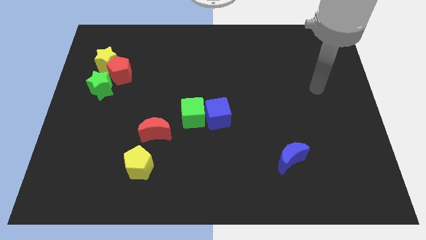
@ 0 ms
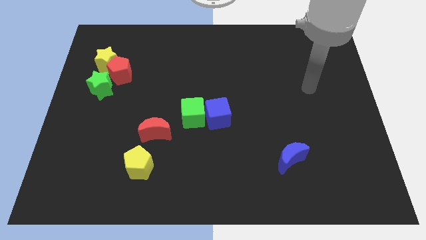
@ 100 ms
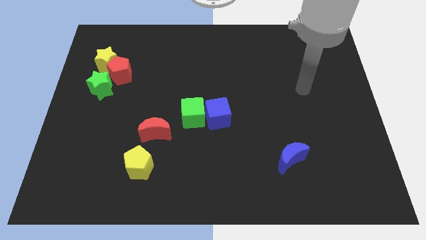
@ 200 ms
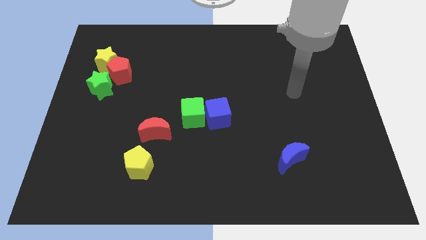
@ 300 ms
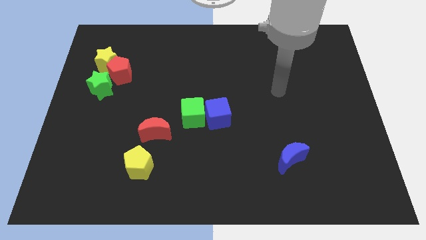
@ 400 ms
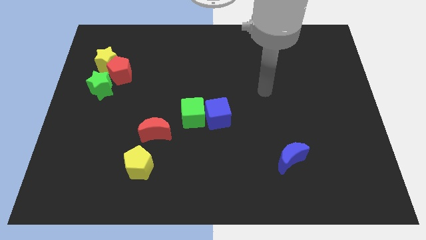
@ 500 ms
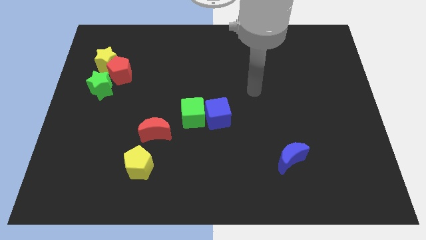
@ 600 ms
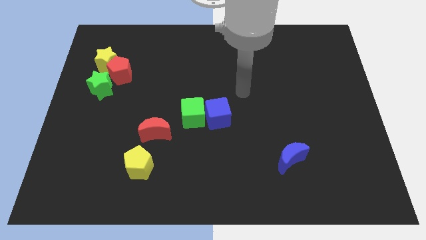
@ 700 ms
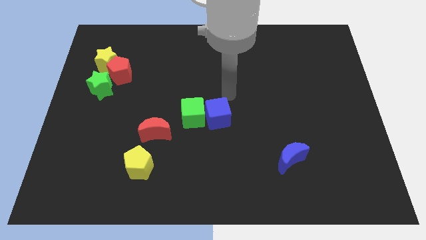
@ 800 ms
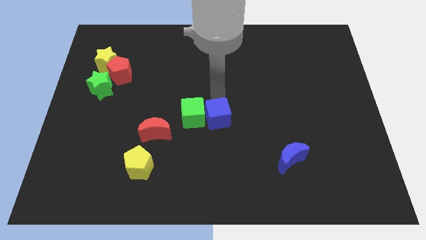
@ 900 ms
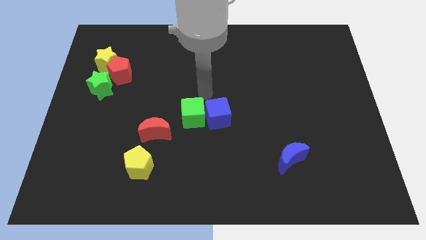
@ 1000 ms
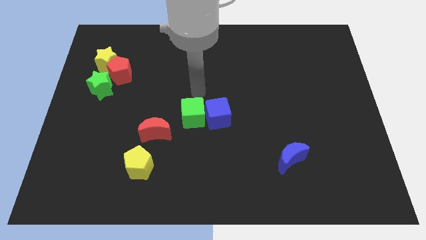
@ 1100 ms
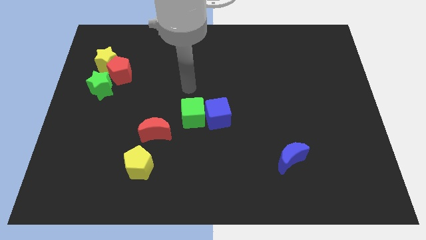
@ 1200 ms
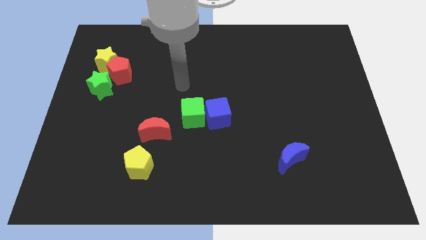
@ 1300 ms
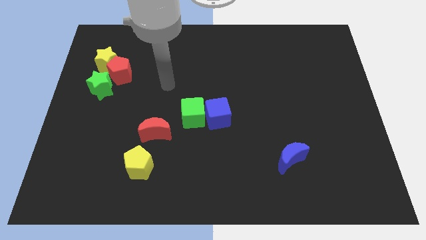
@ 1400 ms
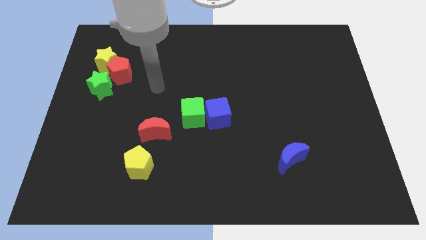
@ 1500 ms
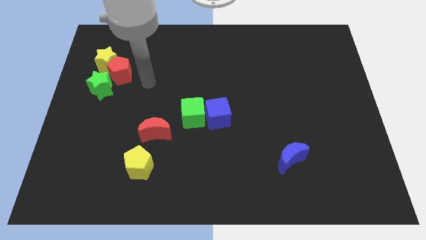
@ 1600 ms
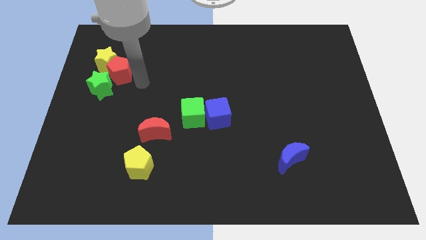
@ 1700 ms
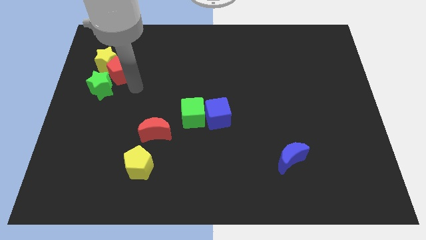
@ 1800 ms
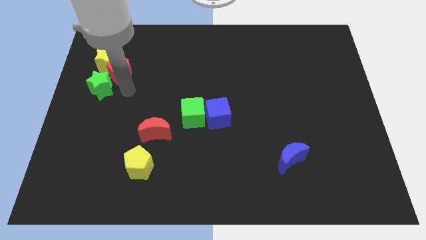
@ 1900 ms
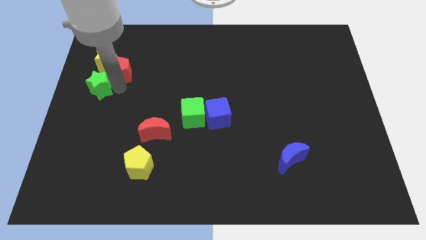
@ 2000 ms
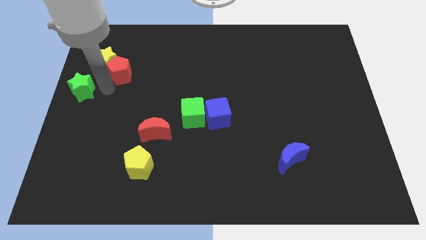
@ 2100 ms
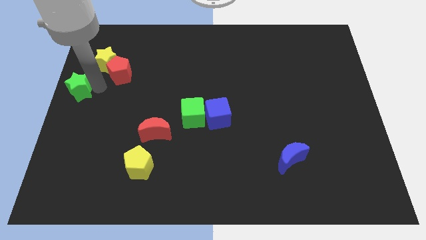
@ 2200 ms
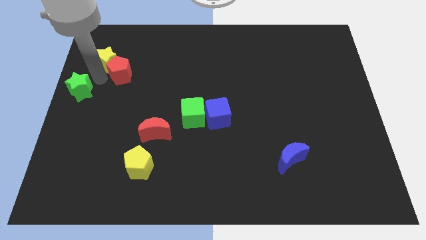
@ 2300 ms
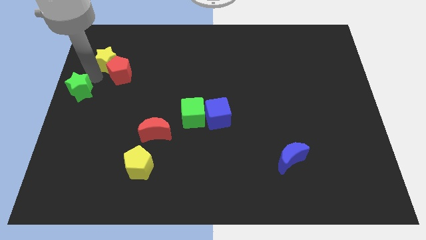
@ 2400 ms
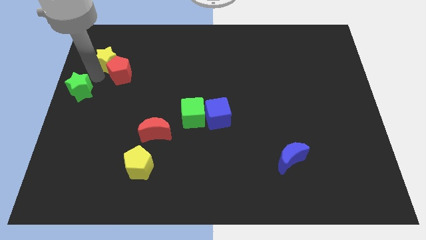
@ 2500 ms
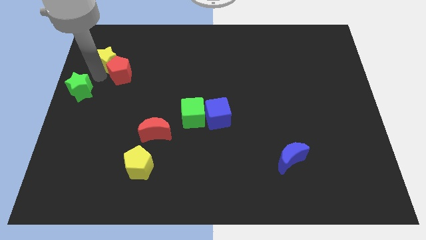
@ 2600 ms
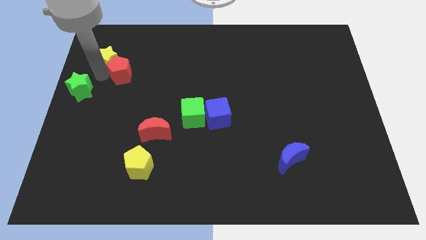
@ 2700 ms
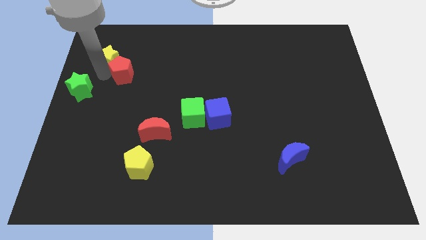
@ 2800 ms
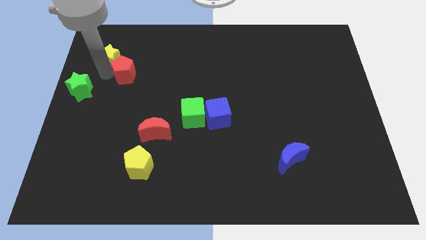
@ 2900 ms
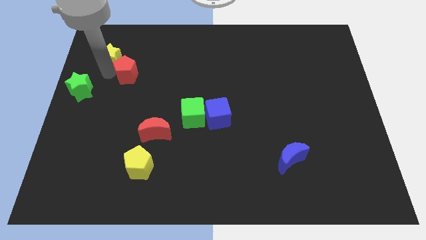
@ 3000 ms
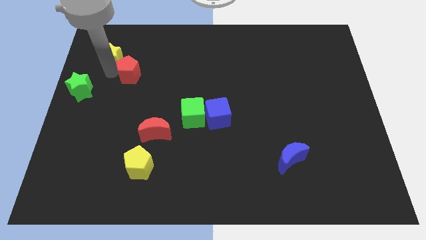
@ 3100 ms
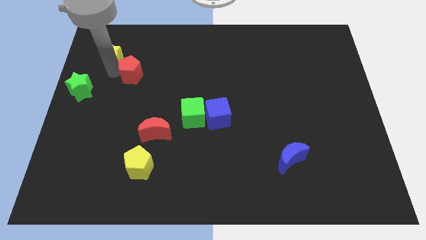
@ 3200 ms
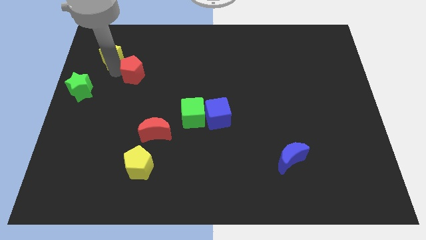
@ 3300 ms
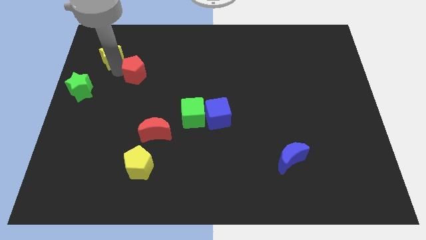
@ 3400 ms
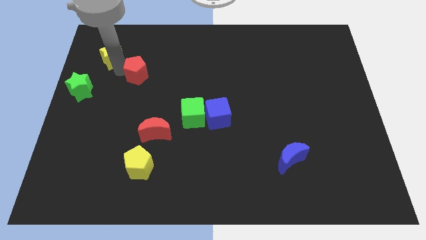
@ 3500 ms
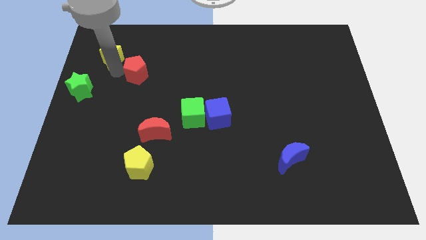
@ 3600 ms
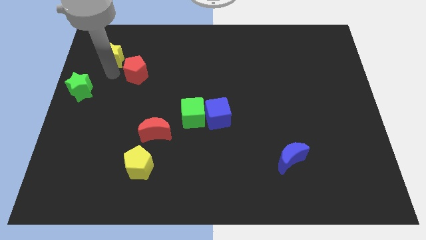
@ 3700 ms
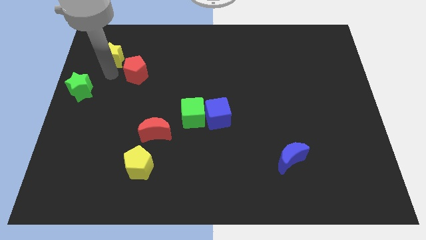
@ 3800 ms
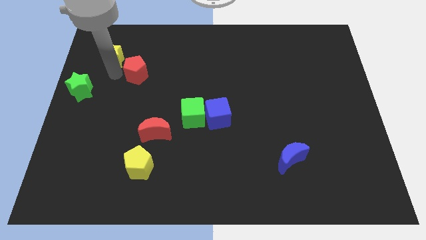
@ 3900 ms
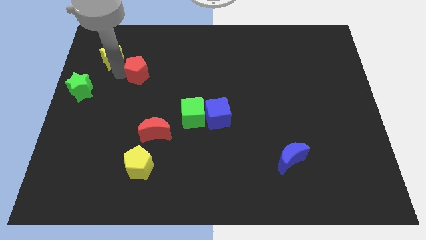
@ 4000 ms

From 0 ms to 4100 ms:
pull the red pentagon apart from the yellow star and green star

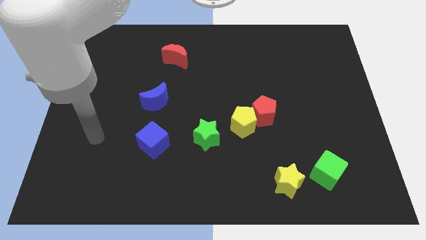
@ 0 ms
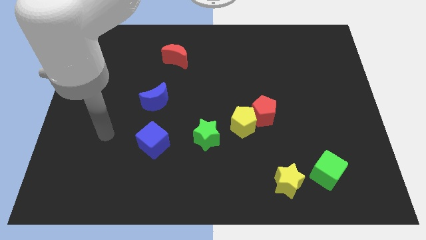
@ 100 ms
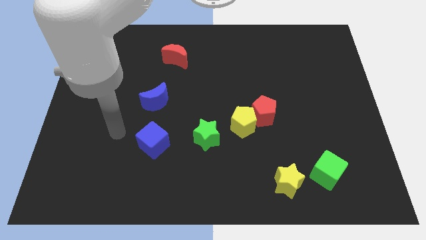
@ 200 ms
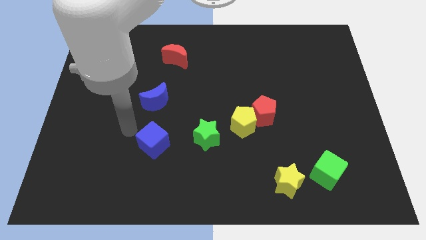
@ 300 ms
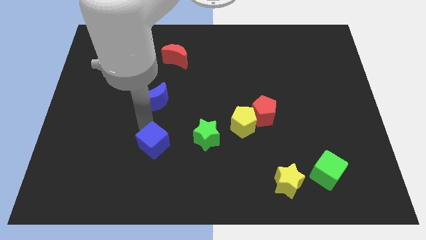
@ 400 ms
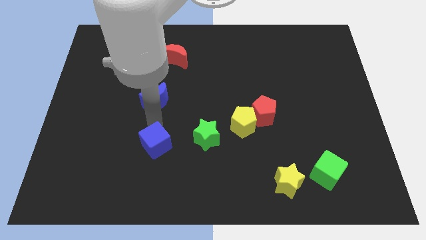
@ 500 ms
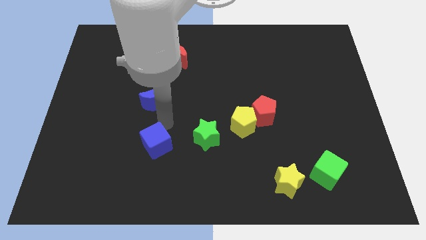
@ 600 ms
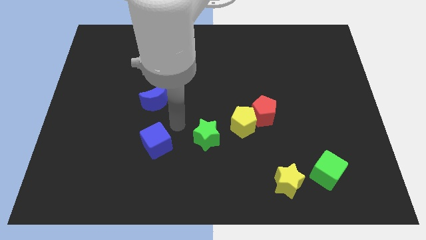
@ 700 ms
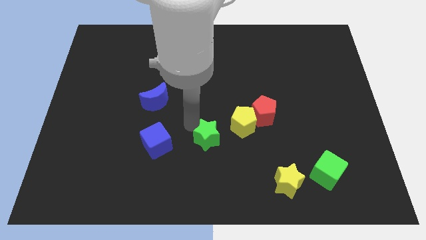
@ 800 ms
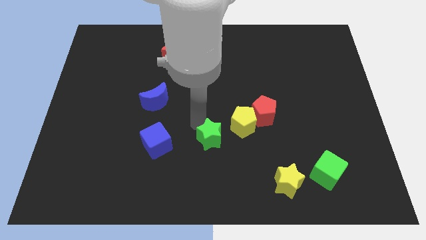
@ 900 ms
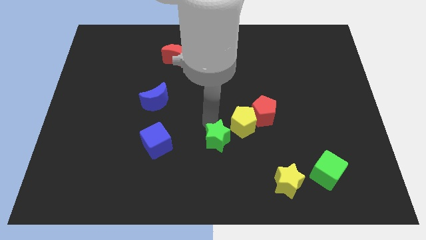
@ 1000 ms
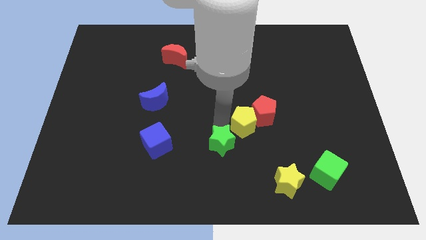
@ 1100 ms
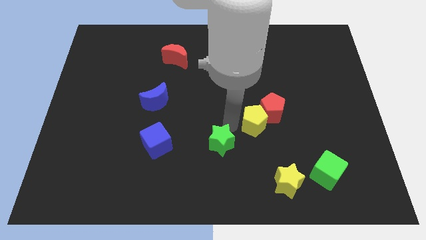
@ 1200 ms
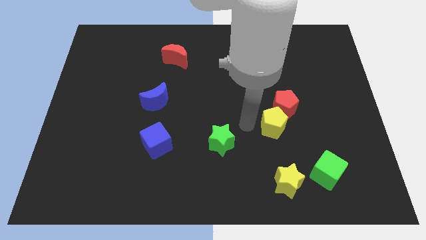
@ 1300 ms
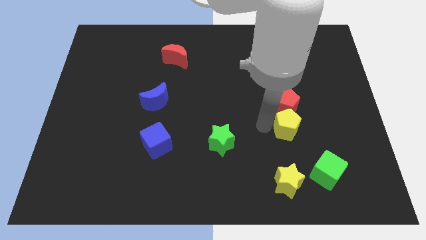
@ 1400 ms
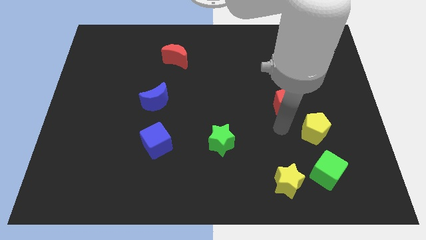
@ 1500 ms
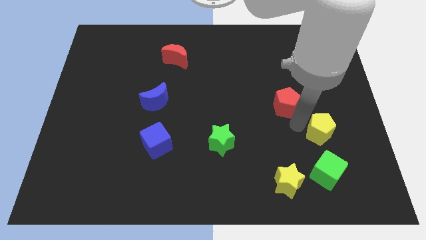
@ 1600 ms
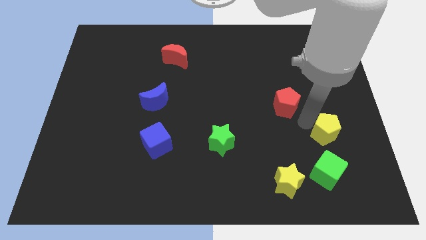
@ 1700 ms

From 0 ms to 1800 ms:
pull the red pentagon apart from the yellow pentagon

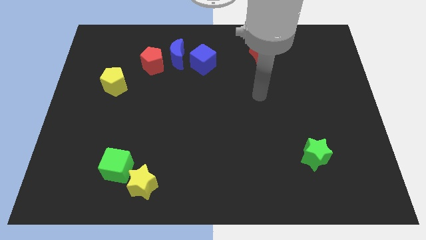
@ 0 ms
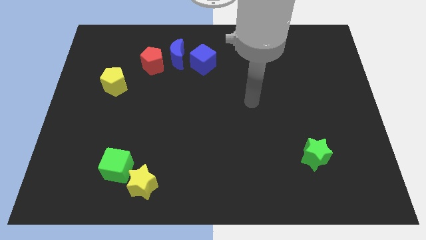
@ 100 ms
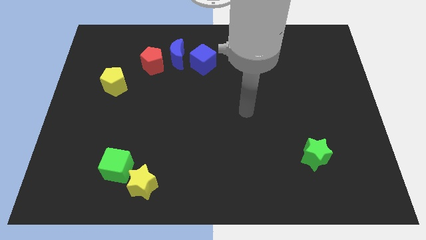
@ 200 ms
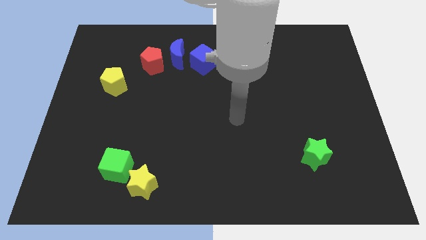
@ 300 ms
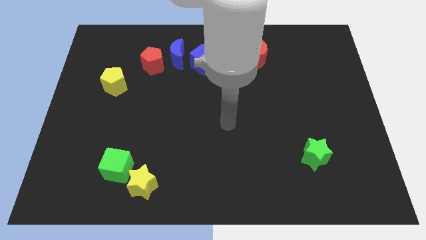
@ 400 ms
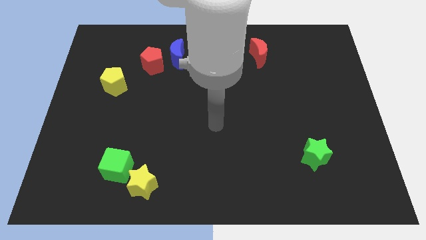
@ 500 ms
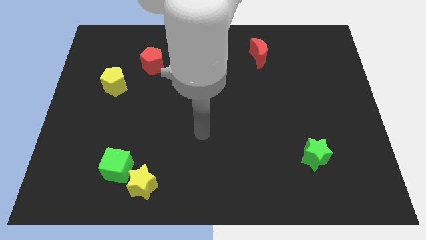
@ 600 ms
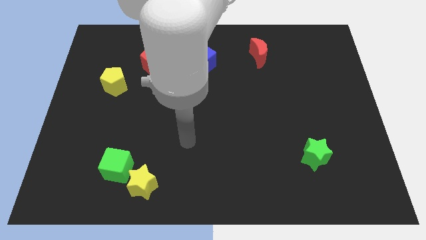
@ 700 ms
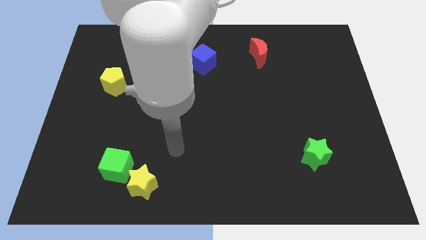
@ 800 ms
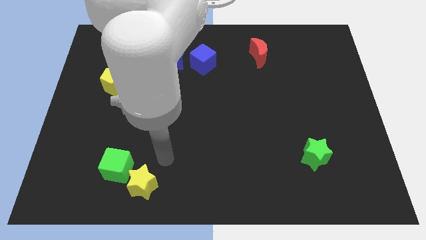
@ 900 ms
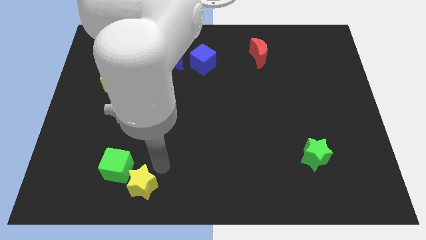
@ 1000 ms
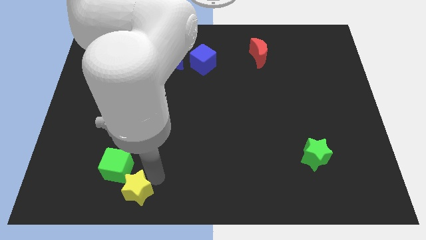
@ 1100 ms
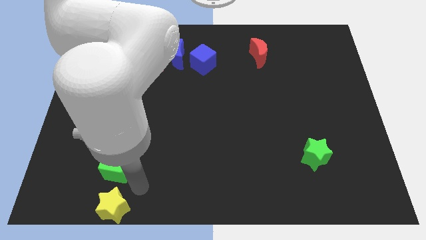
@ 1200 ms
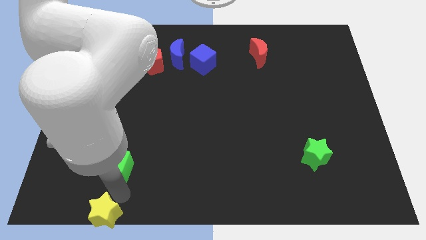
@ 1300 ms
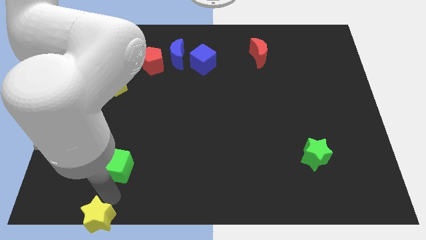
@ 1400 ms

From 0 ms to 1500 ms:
separate the green cube from the yellow star

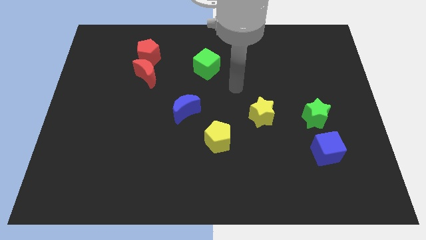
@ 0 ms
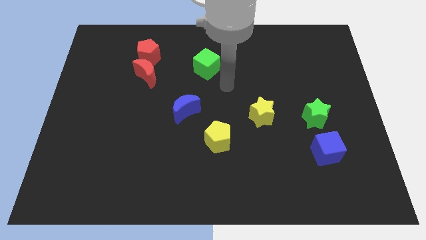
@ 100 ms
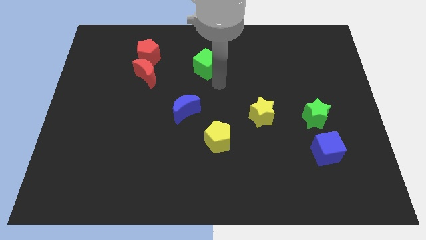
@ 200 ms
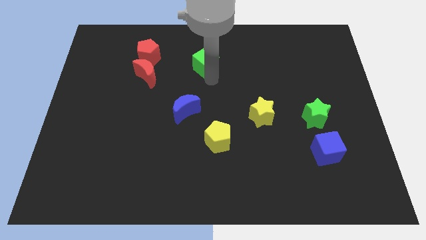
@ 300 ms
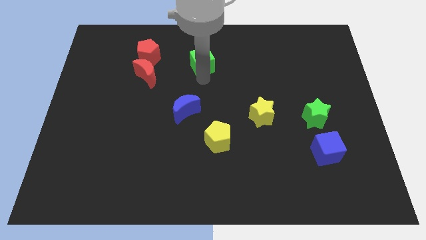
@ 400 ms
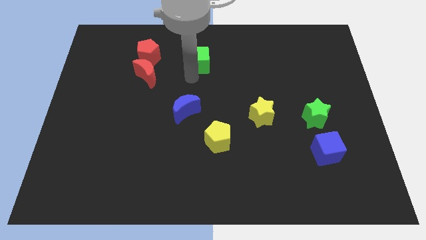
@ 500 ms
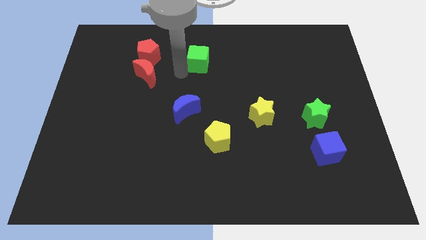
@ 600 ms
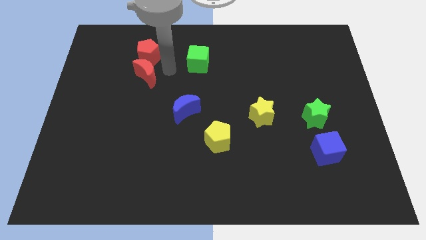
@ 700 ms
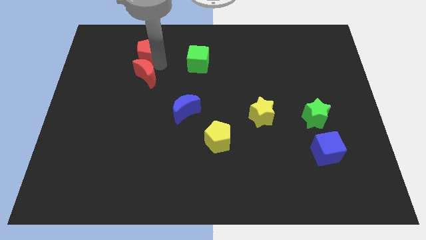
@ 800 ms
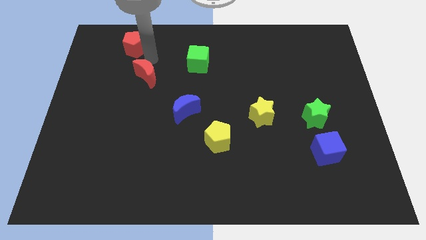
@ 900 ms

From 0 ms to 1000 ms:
pull the red moon apart from the red pentagon

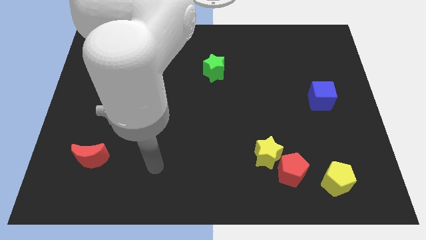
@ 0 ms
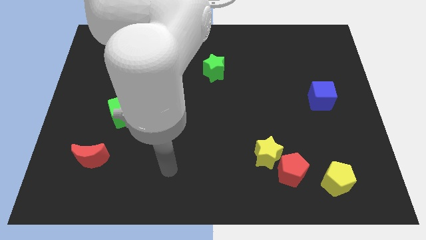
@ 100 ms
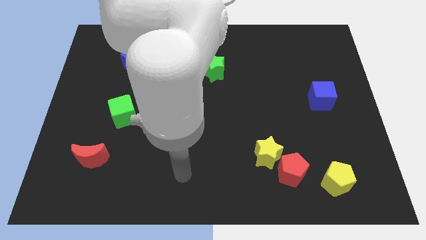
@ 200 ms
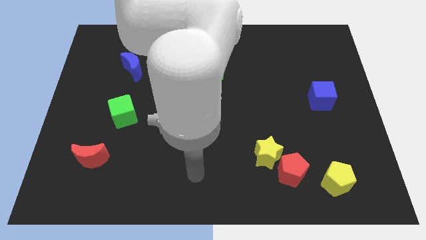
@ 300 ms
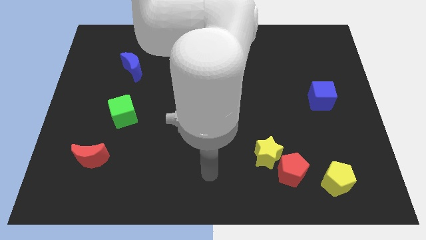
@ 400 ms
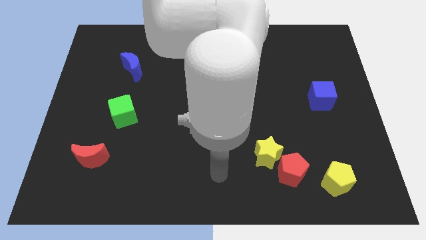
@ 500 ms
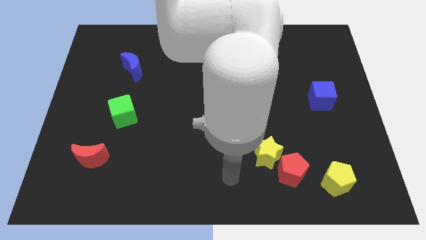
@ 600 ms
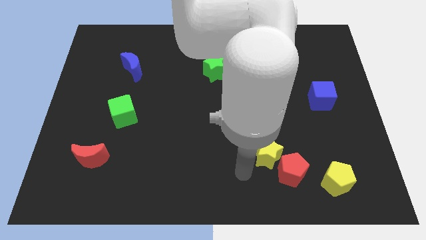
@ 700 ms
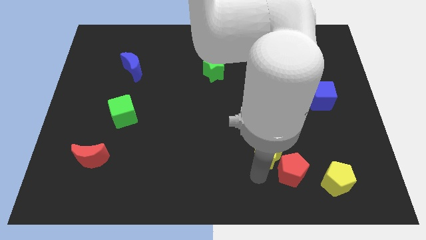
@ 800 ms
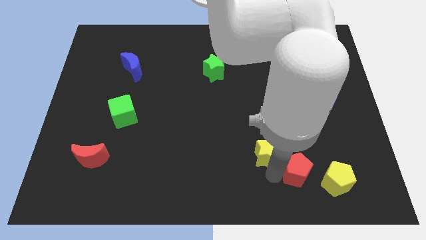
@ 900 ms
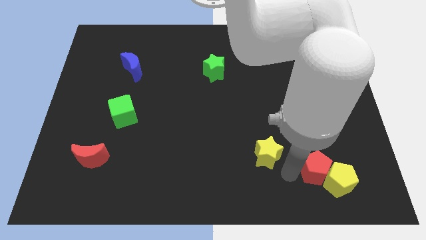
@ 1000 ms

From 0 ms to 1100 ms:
separate the yellow star from the red pentagon
